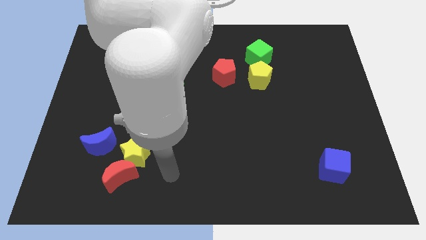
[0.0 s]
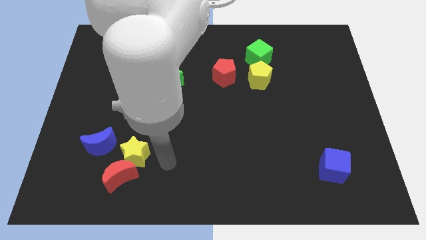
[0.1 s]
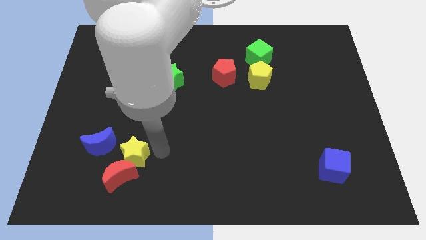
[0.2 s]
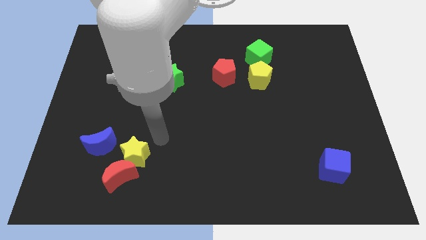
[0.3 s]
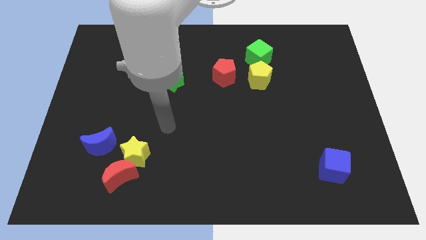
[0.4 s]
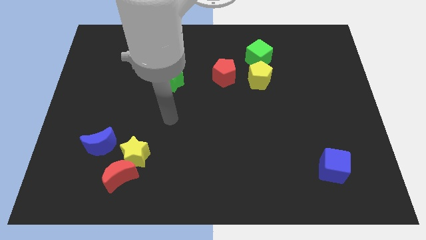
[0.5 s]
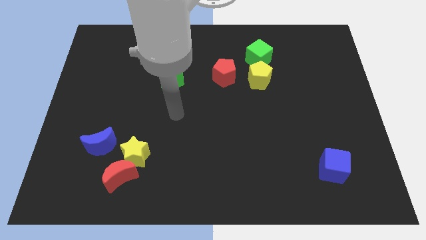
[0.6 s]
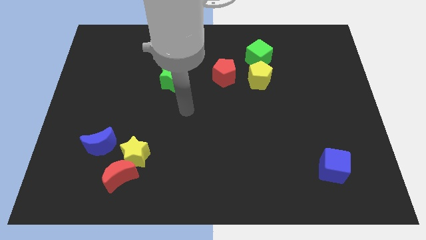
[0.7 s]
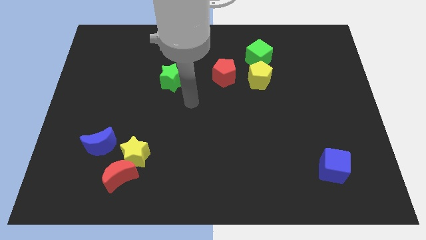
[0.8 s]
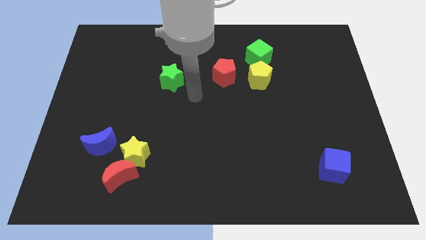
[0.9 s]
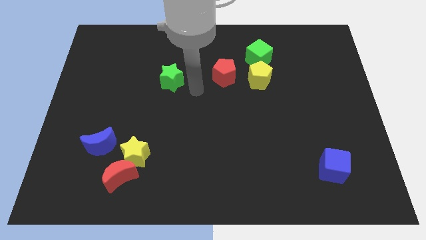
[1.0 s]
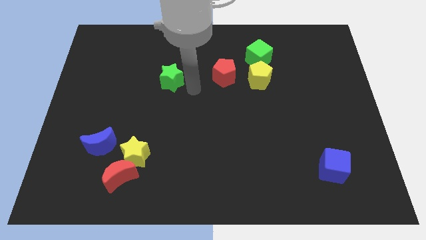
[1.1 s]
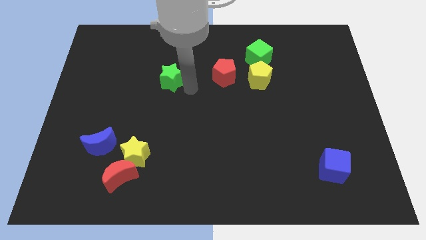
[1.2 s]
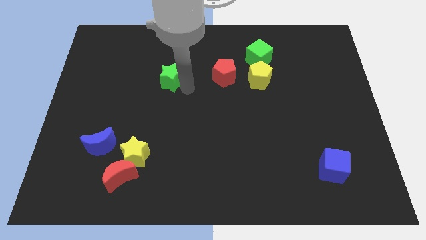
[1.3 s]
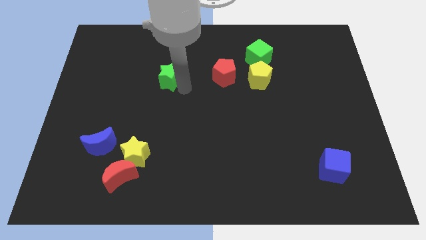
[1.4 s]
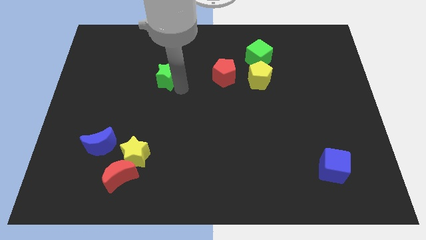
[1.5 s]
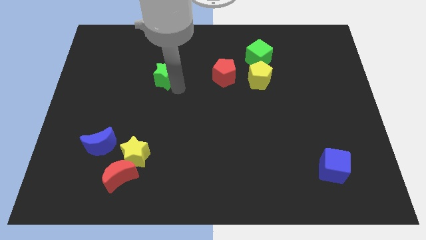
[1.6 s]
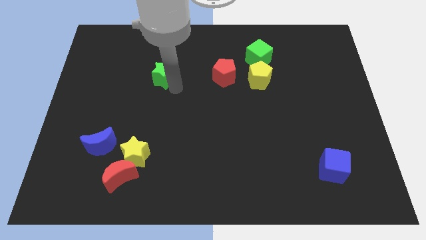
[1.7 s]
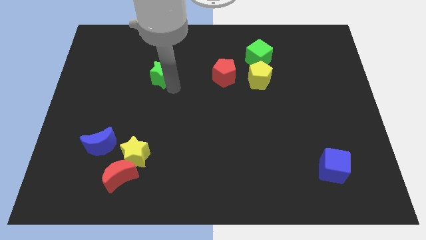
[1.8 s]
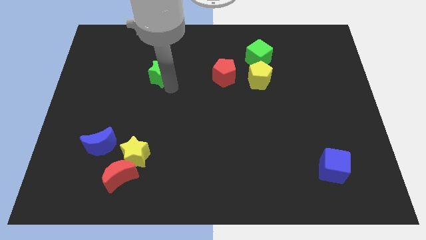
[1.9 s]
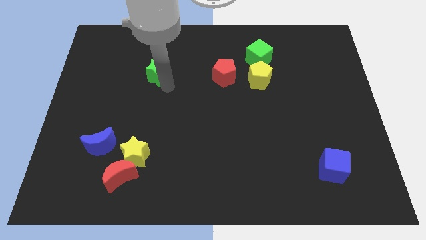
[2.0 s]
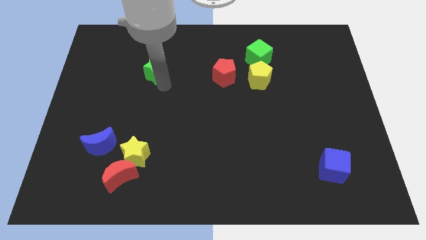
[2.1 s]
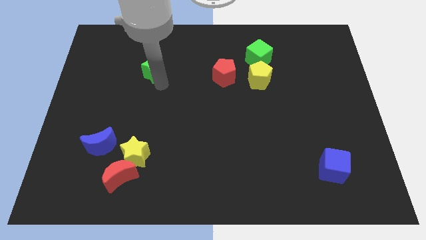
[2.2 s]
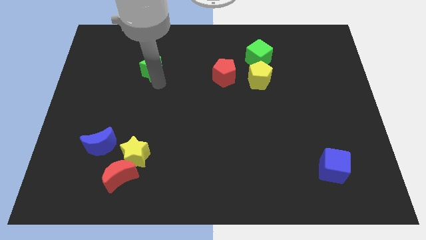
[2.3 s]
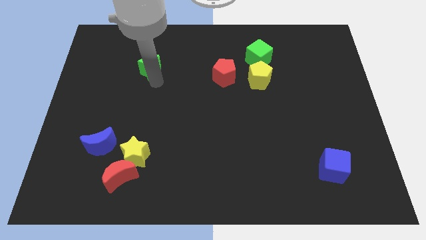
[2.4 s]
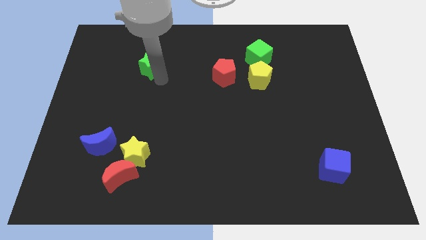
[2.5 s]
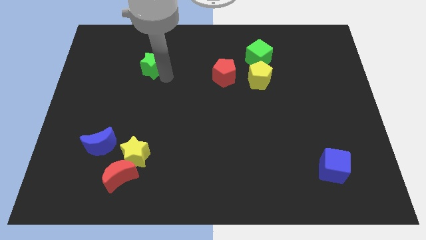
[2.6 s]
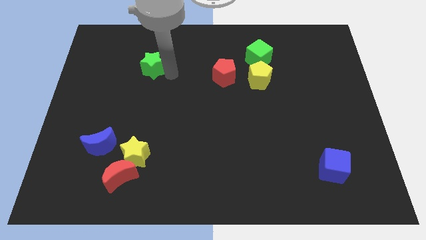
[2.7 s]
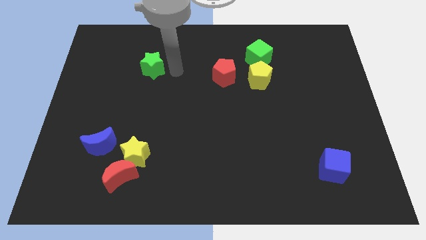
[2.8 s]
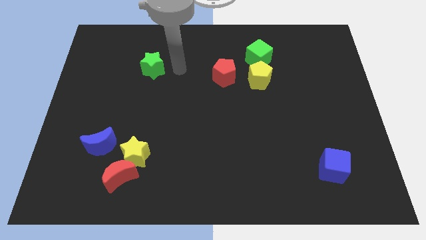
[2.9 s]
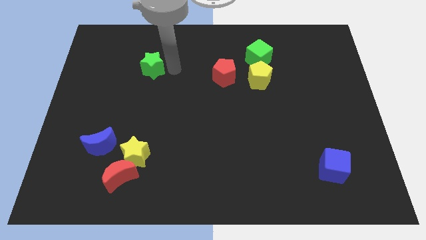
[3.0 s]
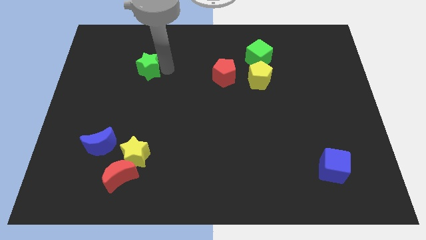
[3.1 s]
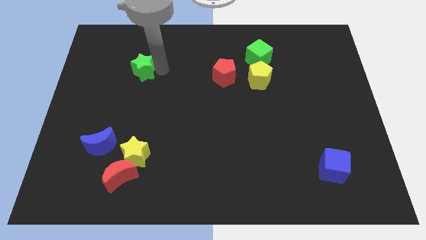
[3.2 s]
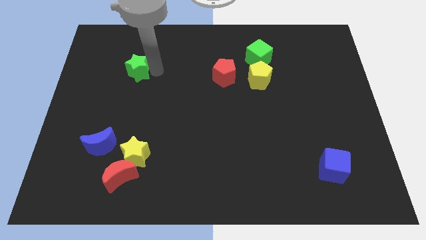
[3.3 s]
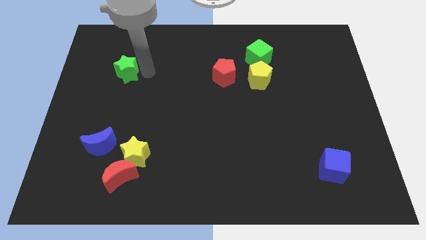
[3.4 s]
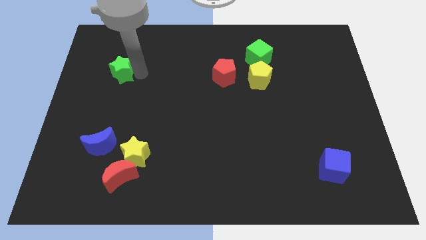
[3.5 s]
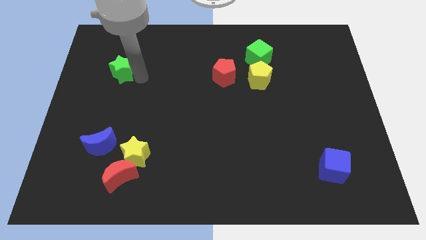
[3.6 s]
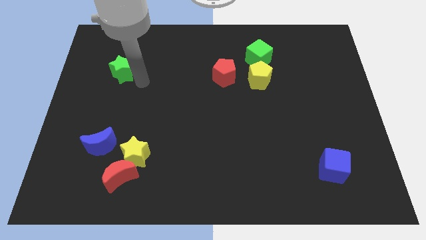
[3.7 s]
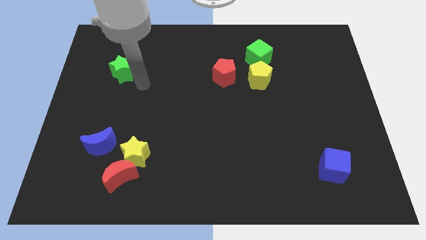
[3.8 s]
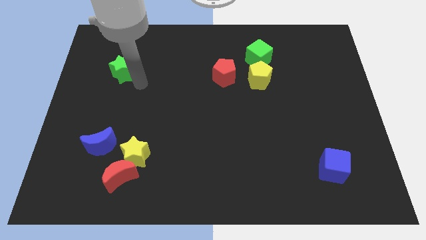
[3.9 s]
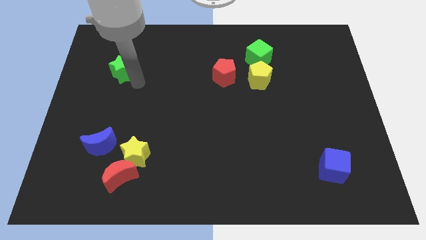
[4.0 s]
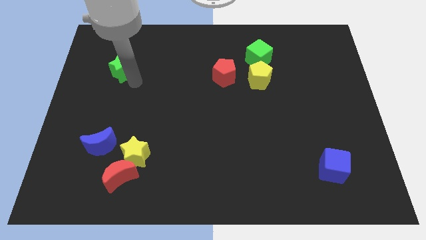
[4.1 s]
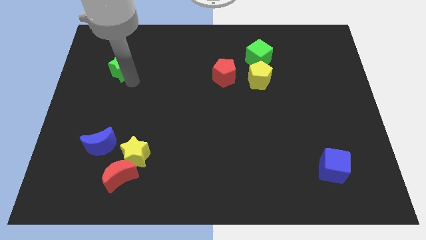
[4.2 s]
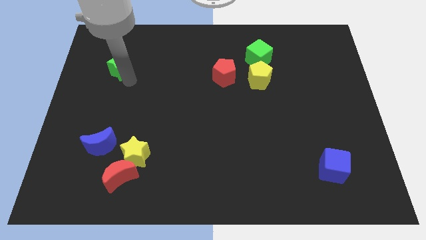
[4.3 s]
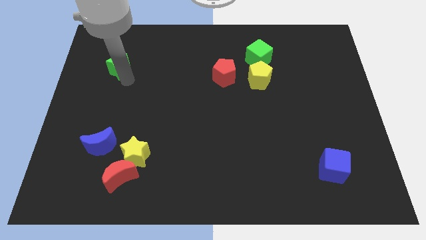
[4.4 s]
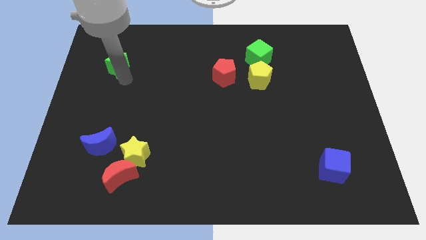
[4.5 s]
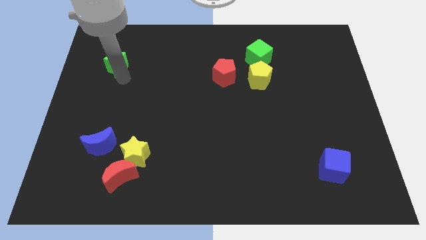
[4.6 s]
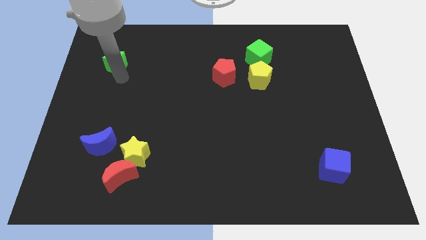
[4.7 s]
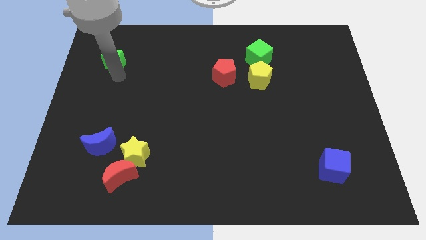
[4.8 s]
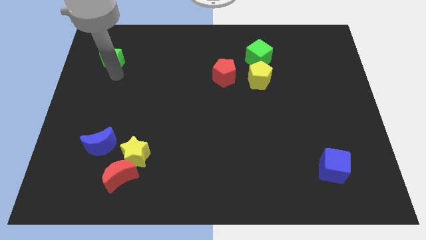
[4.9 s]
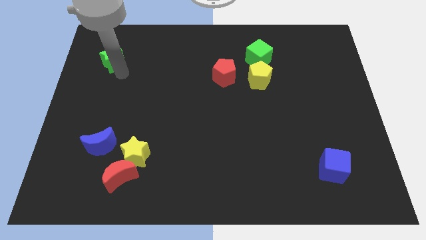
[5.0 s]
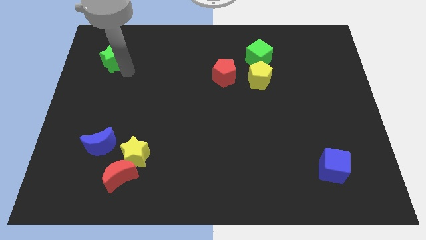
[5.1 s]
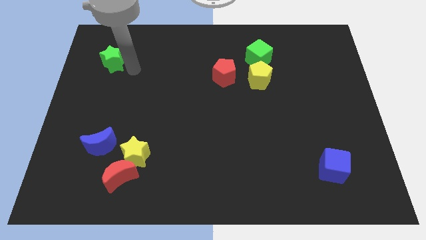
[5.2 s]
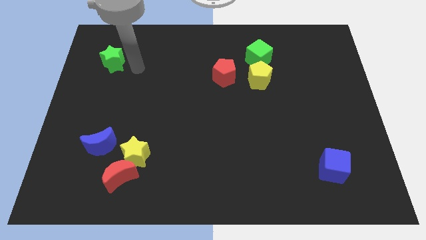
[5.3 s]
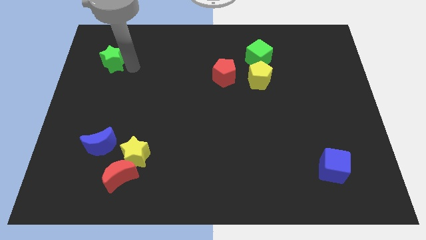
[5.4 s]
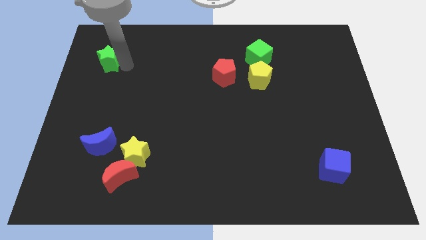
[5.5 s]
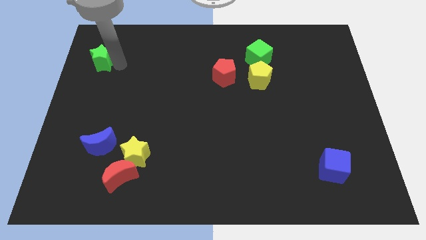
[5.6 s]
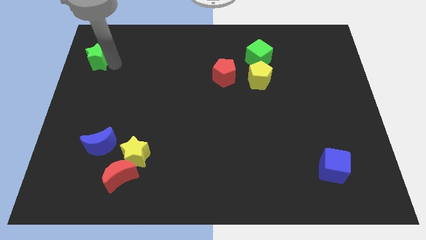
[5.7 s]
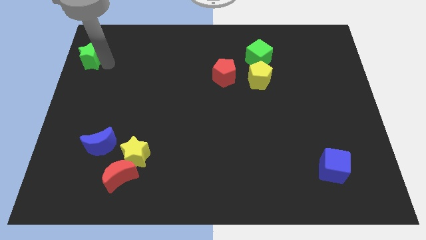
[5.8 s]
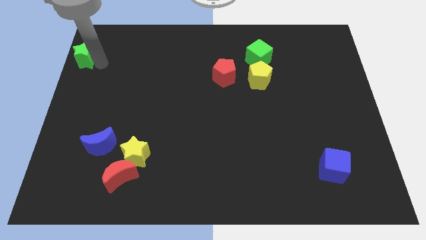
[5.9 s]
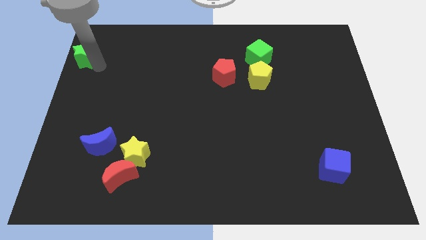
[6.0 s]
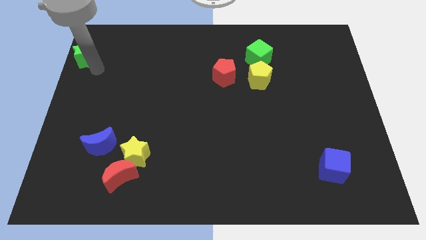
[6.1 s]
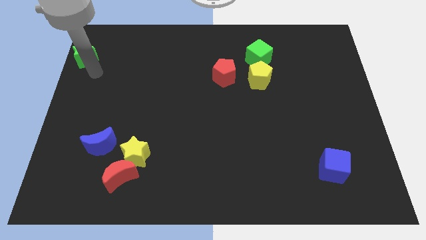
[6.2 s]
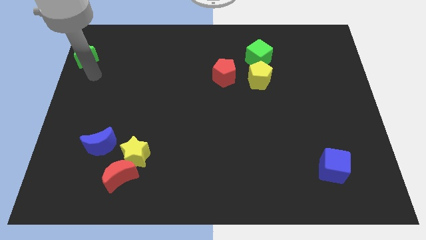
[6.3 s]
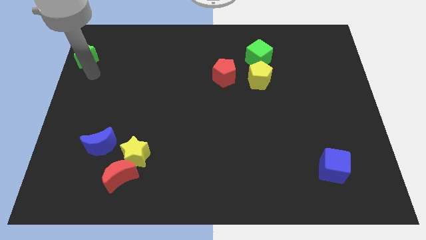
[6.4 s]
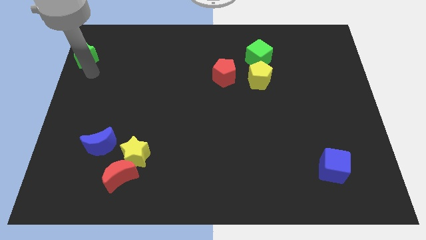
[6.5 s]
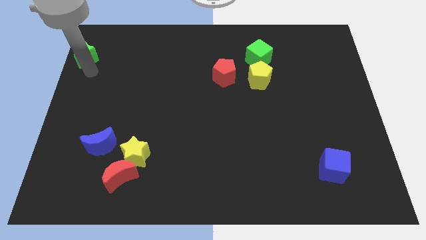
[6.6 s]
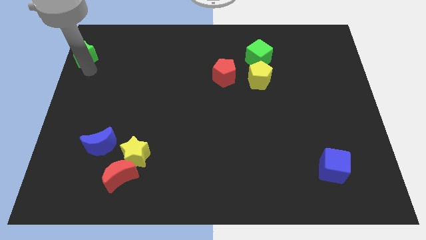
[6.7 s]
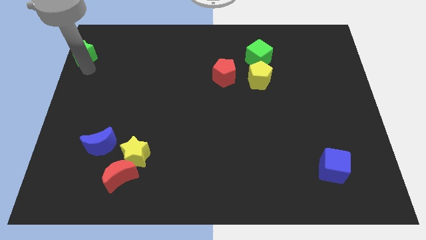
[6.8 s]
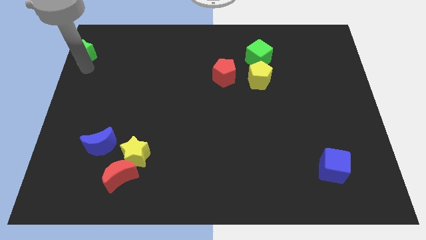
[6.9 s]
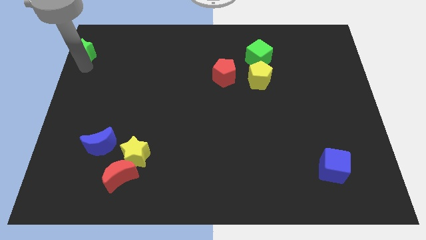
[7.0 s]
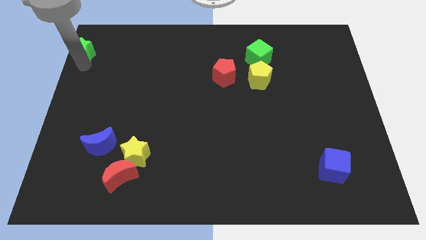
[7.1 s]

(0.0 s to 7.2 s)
move the green star to the top left
